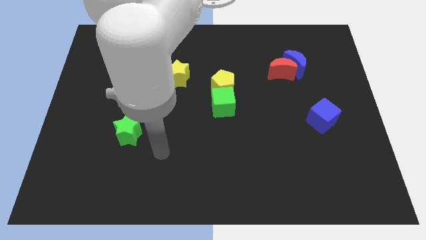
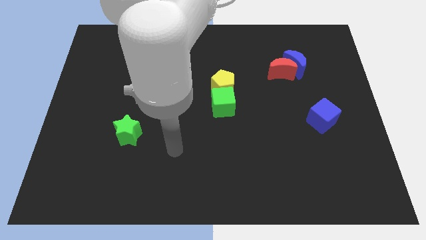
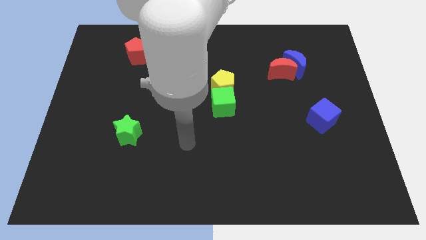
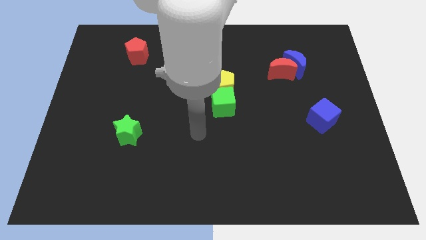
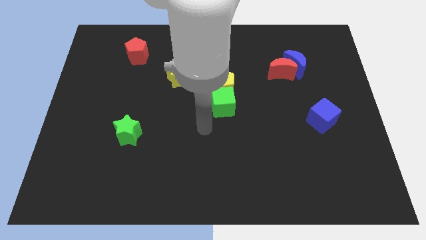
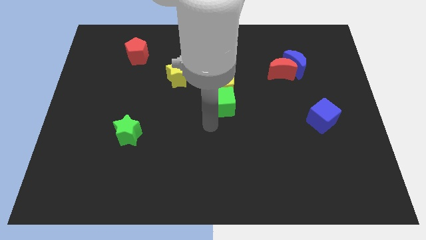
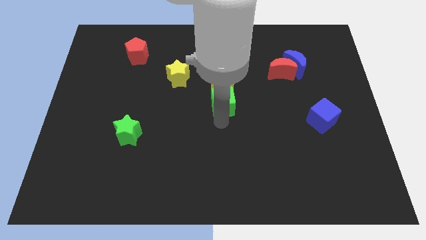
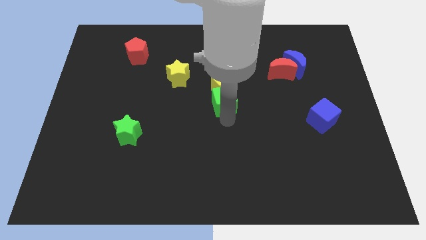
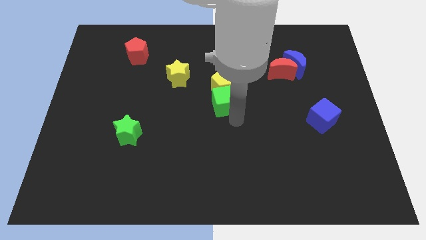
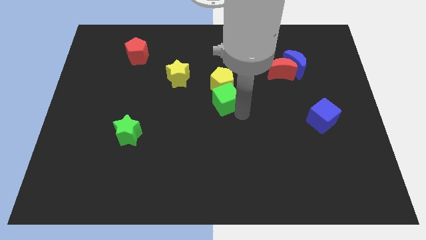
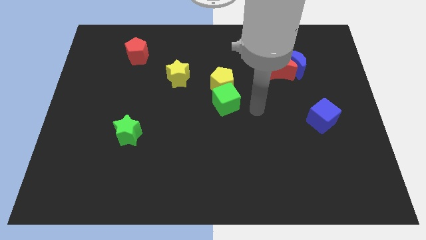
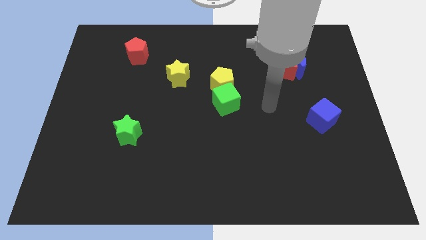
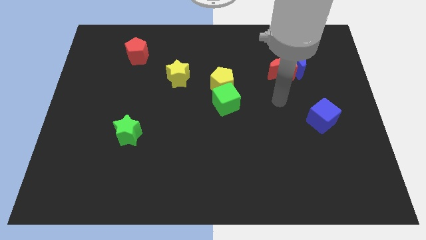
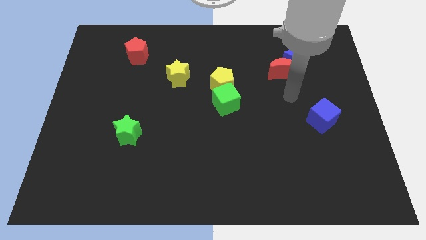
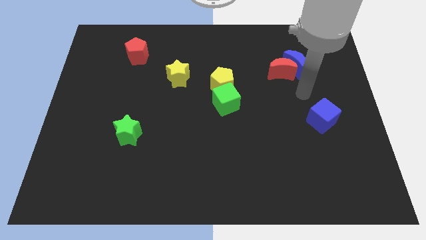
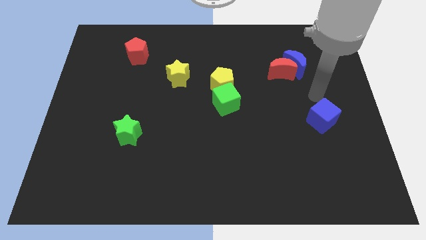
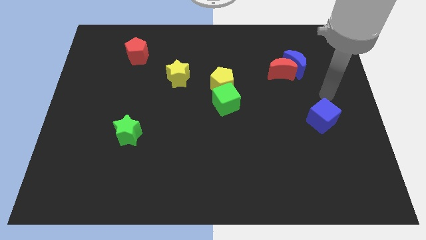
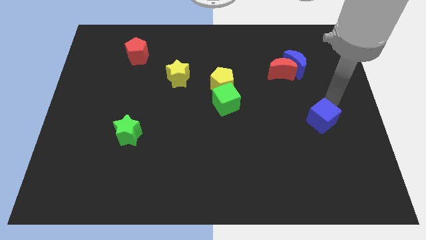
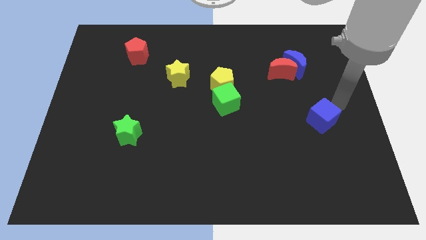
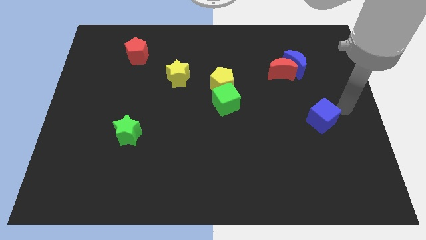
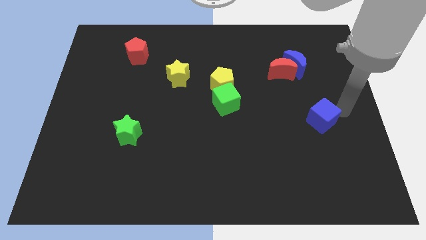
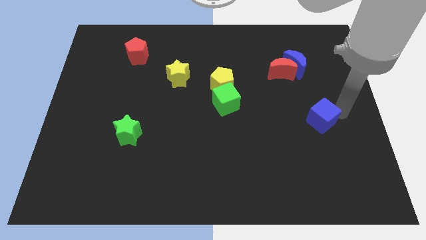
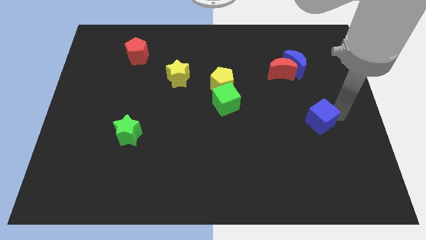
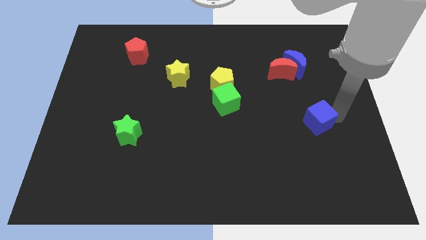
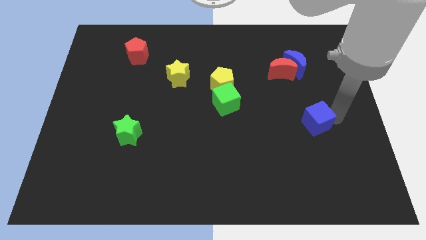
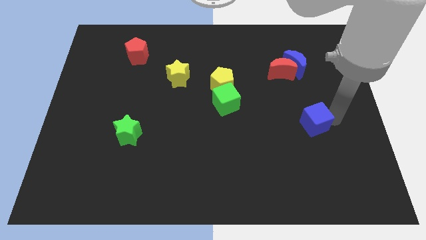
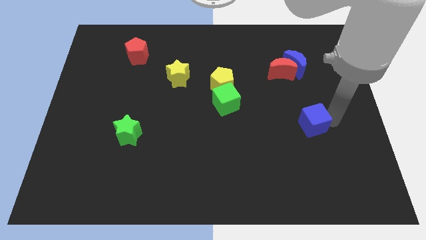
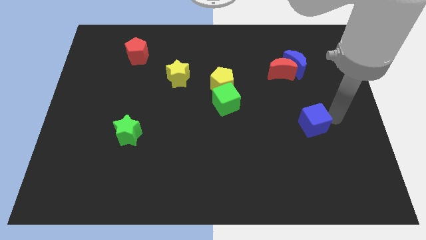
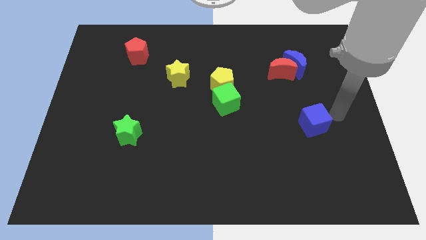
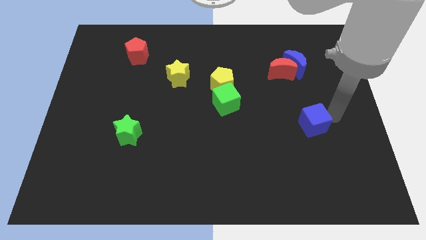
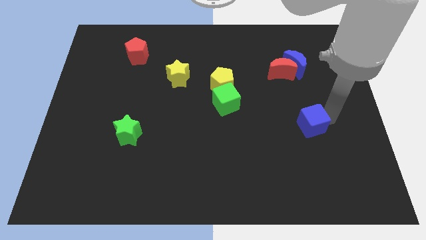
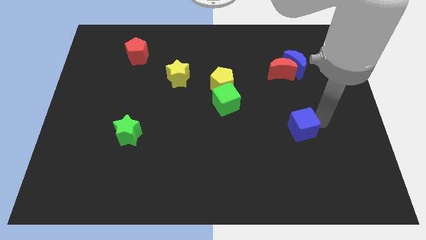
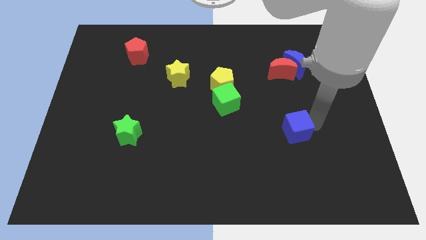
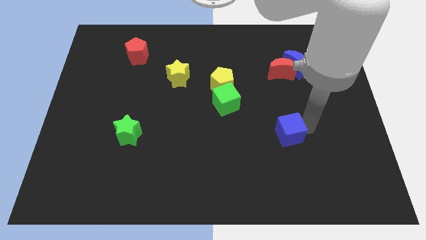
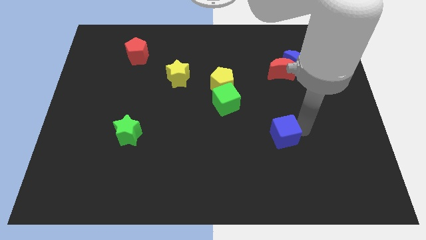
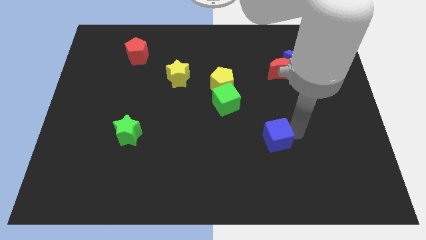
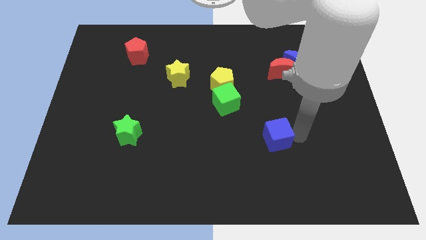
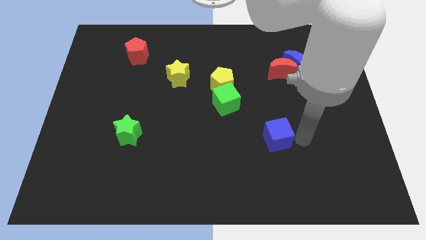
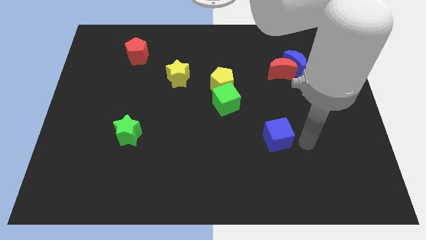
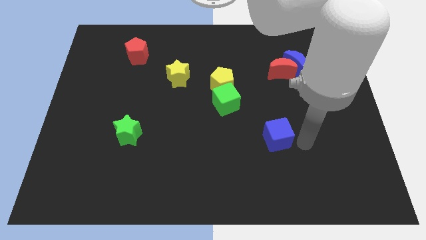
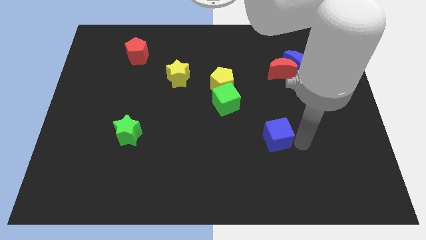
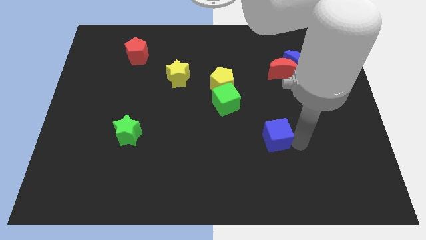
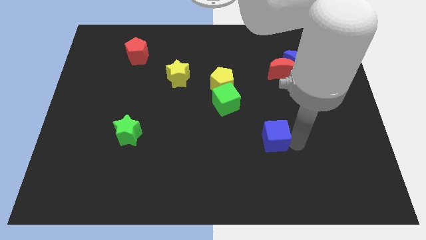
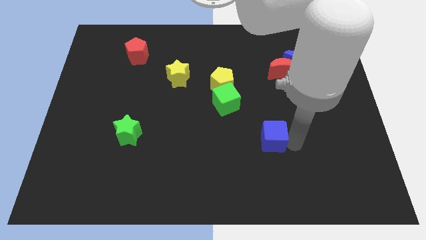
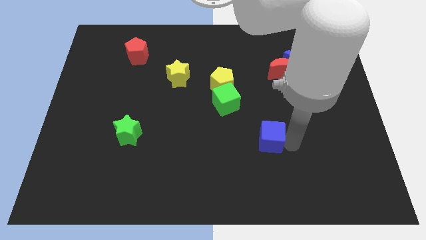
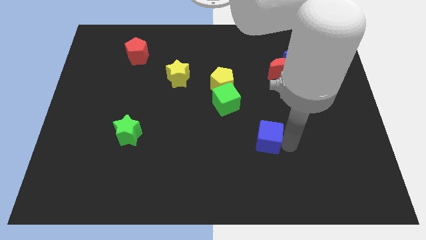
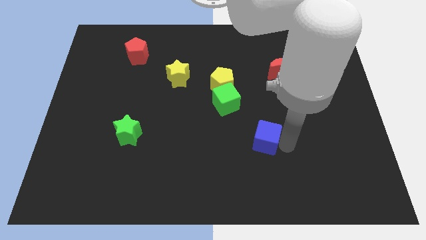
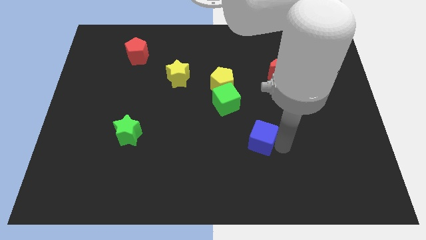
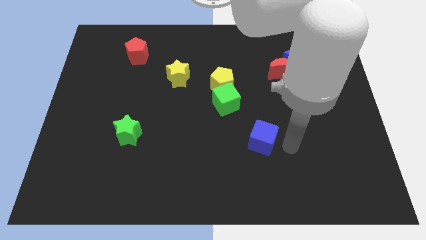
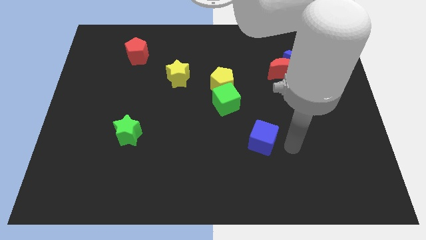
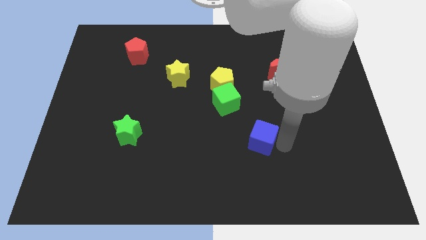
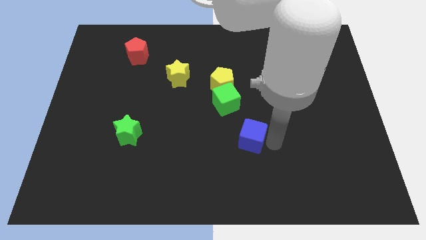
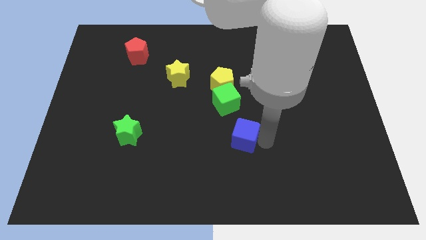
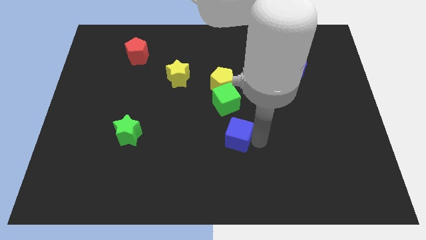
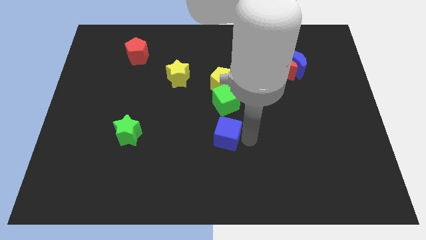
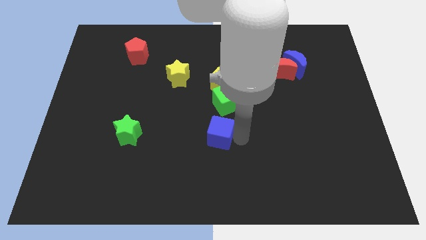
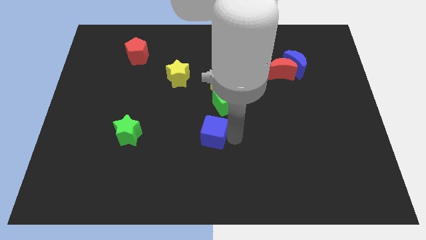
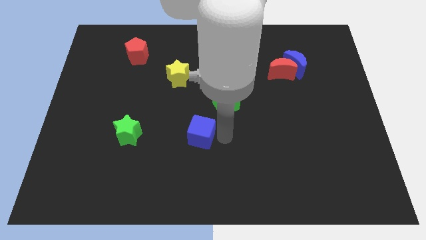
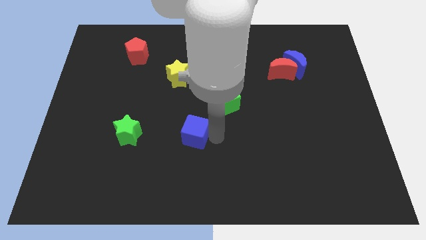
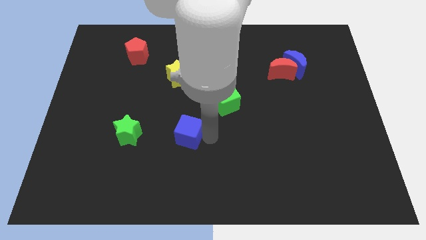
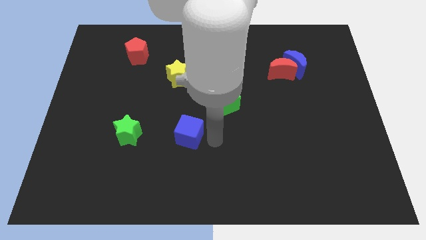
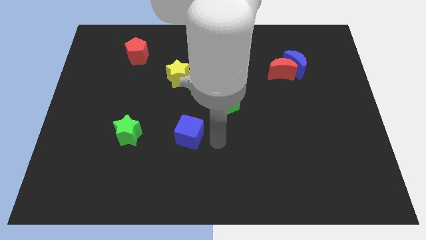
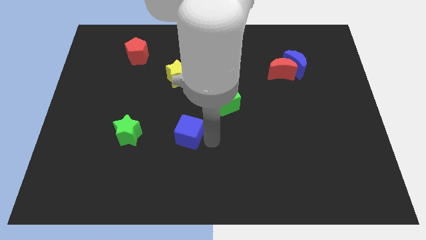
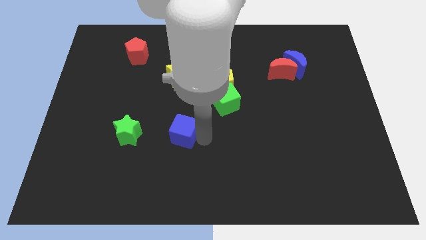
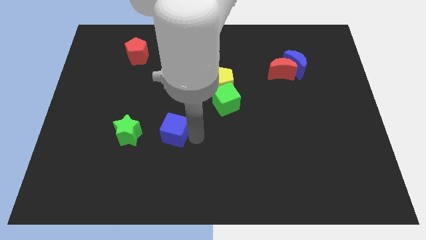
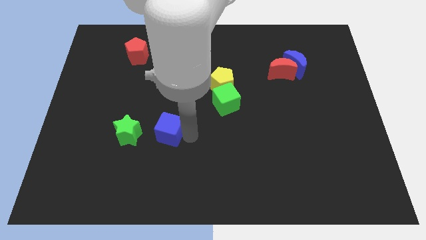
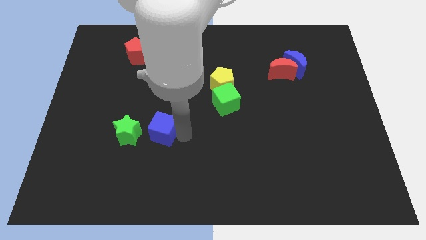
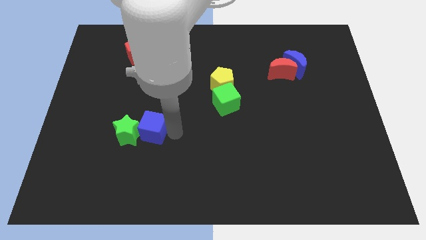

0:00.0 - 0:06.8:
slide the blue cube close to the green star

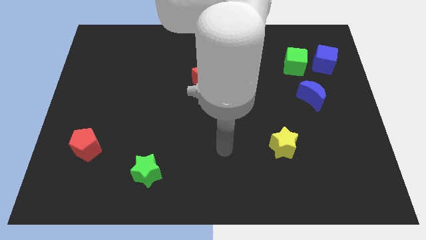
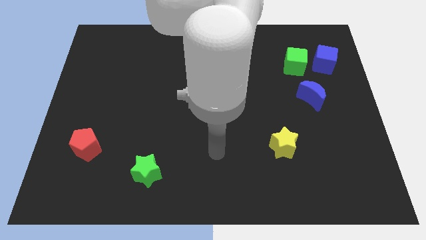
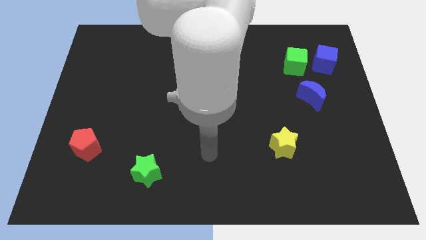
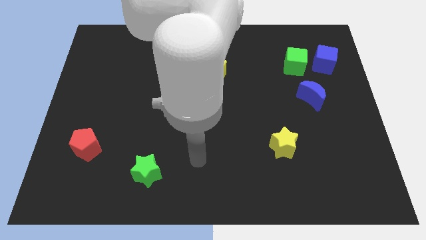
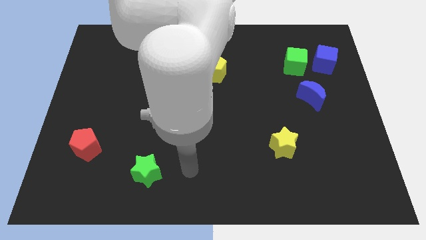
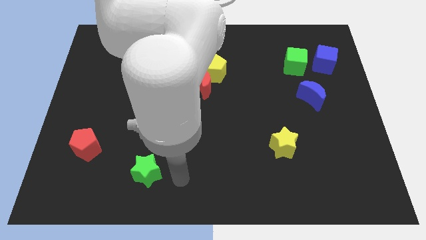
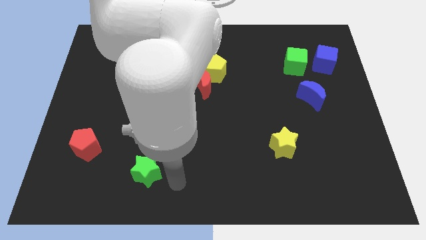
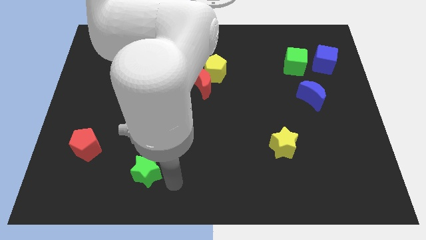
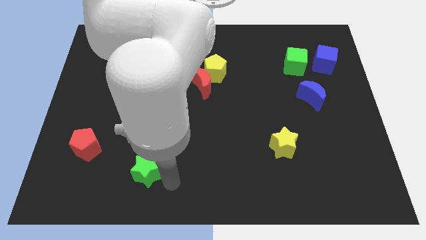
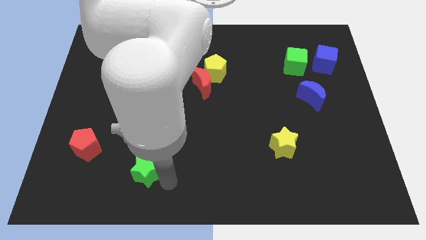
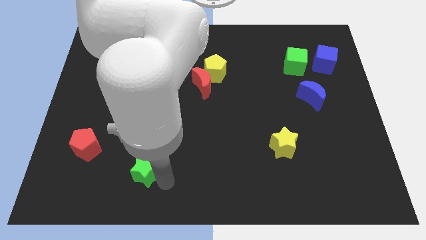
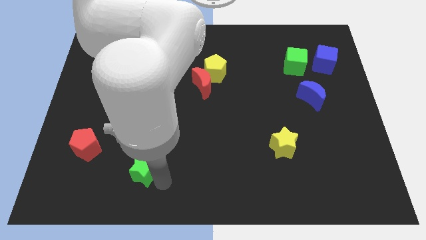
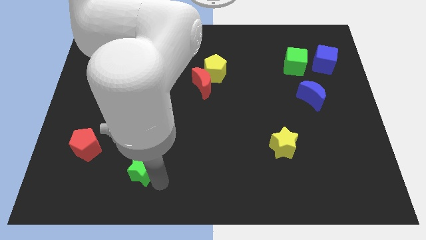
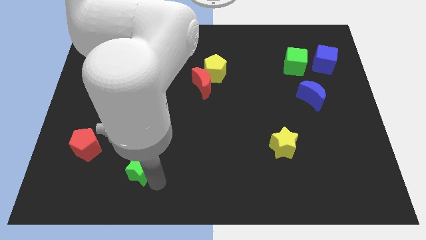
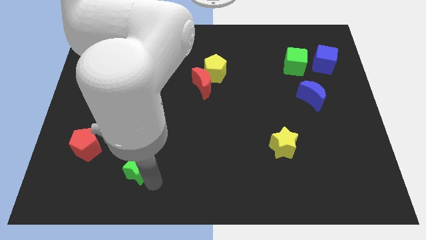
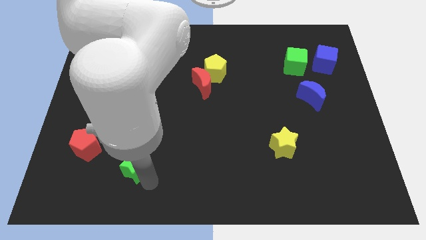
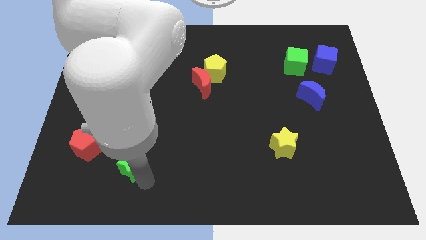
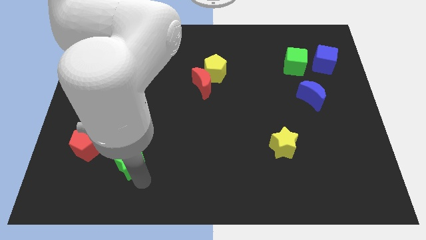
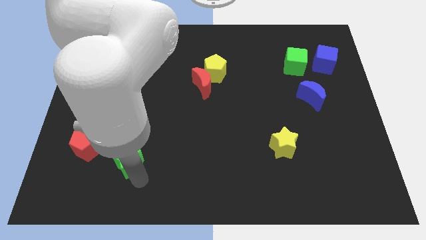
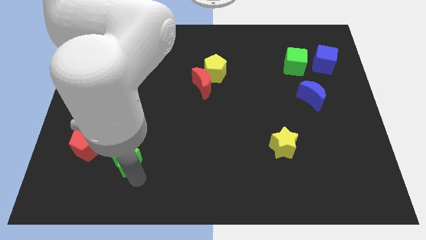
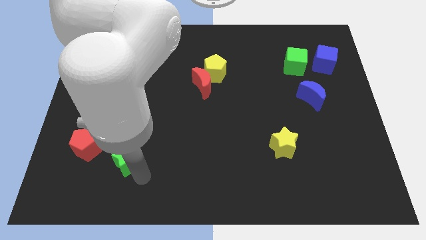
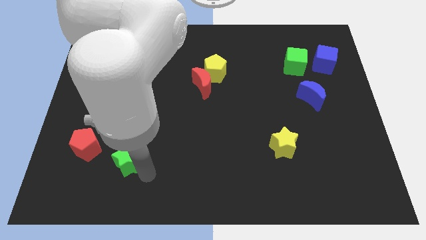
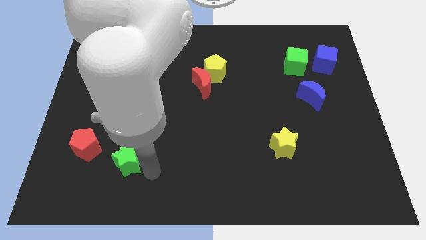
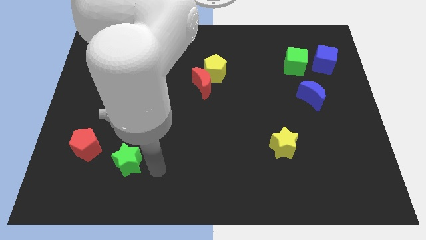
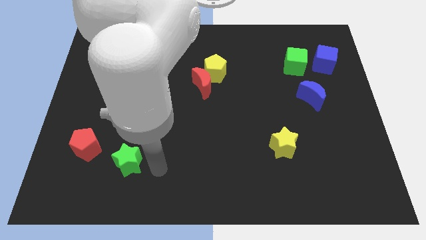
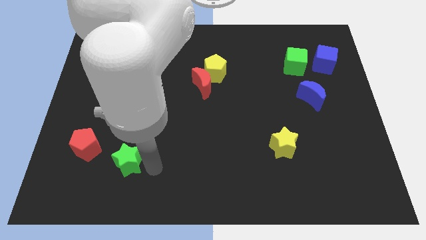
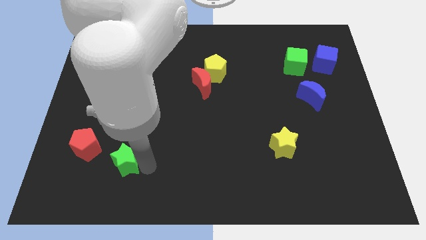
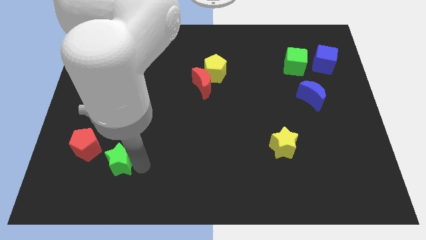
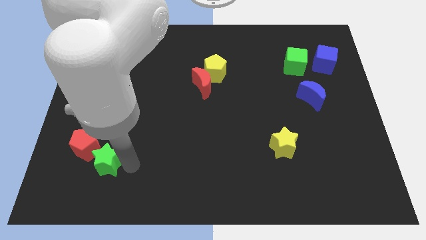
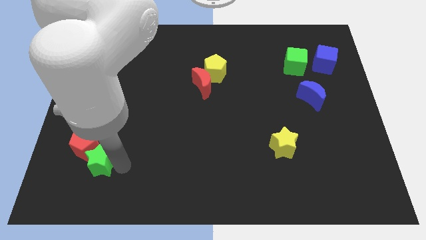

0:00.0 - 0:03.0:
put the green star towards the red pentagon
